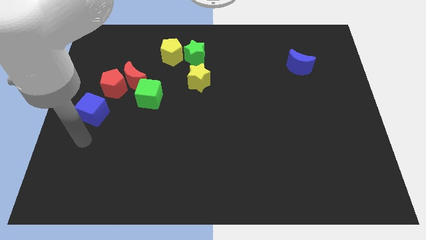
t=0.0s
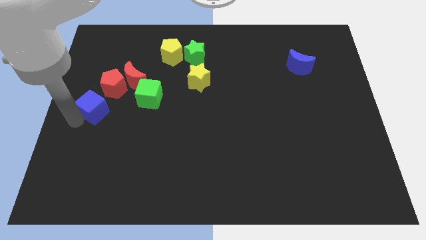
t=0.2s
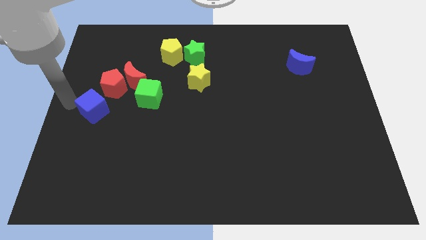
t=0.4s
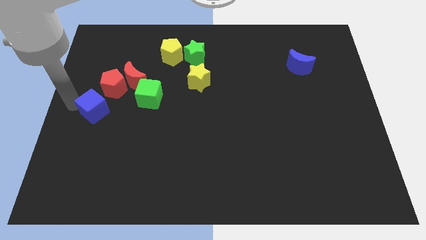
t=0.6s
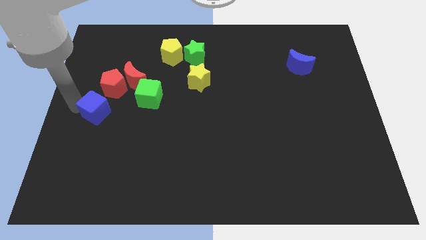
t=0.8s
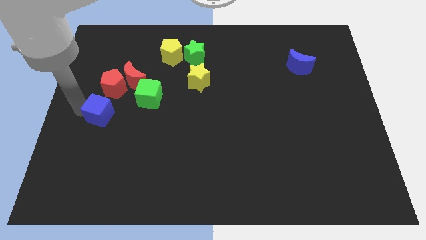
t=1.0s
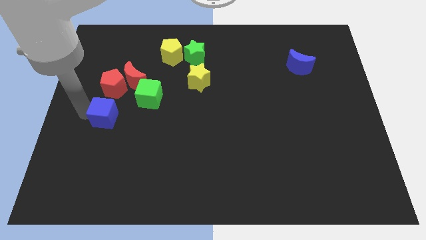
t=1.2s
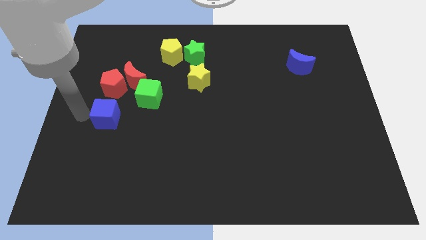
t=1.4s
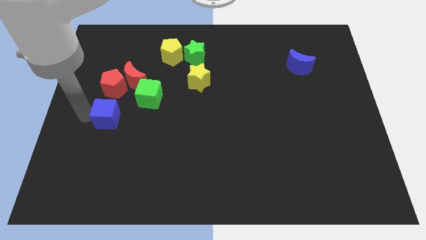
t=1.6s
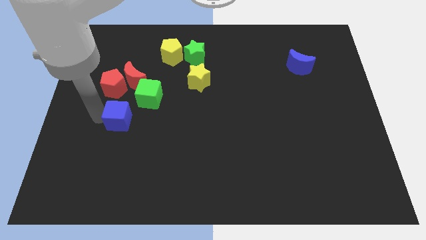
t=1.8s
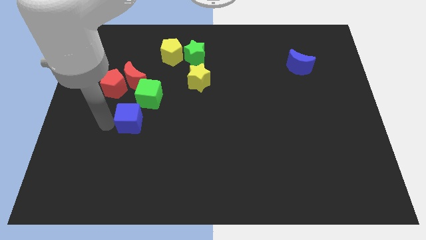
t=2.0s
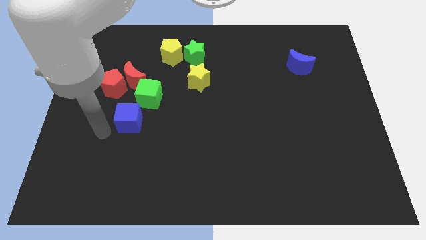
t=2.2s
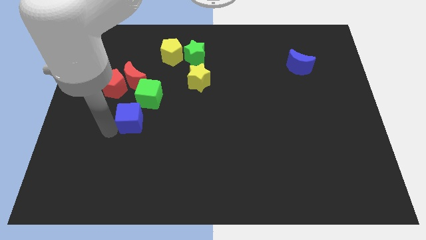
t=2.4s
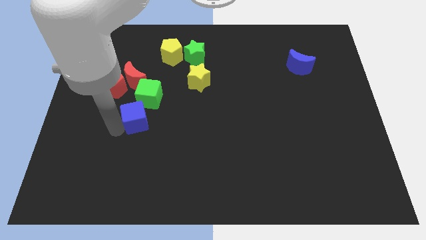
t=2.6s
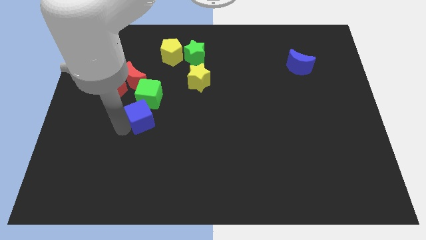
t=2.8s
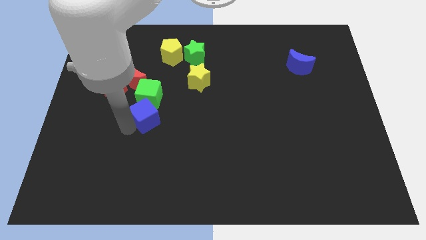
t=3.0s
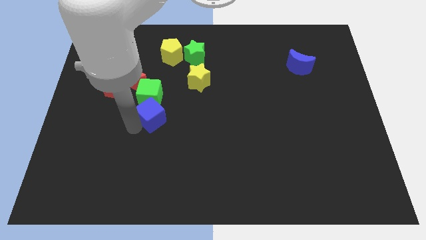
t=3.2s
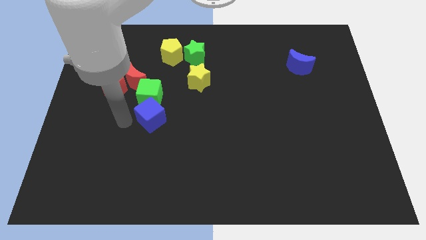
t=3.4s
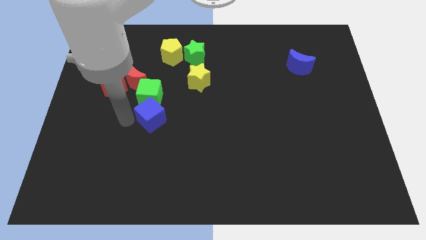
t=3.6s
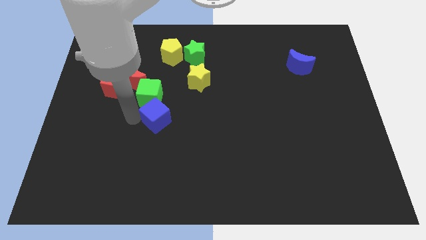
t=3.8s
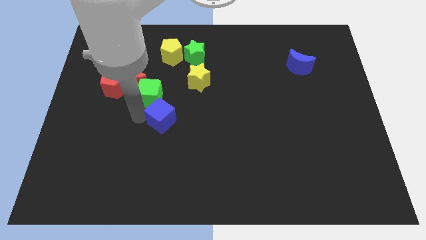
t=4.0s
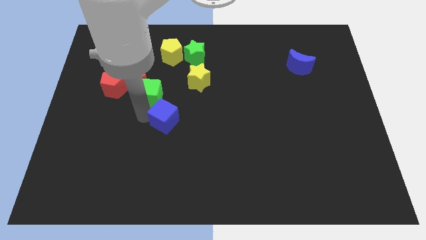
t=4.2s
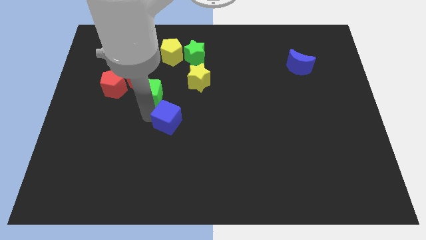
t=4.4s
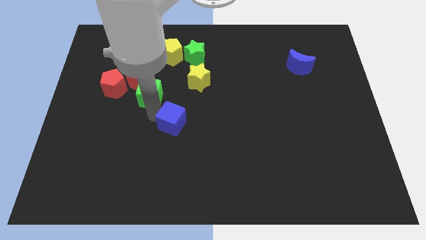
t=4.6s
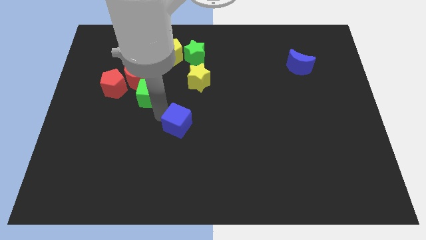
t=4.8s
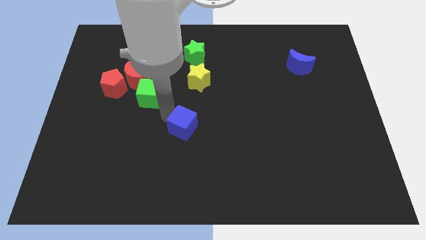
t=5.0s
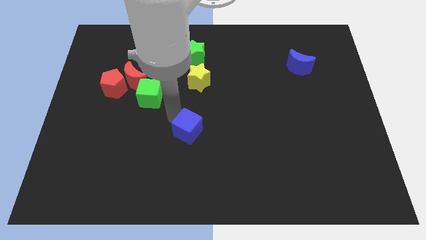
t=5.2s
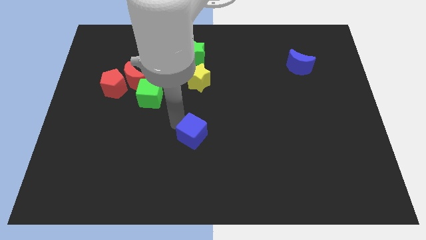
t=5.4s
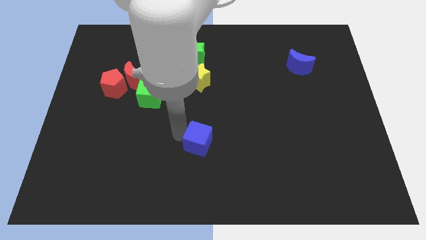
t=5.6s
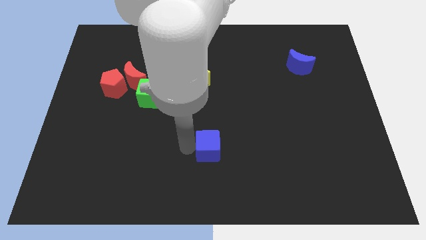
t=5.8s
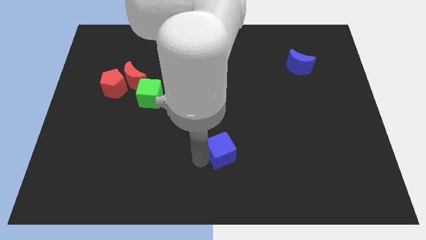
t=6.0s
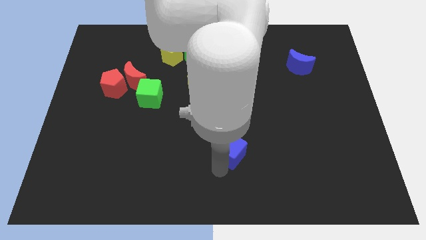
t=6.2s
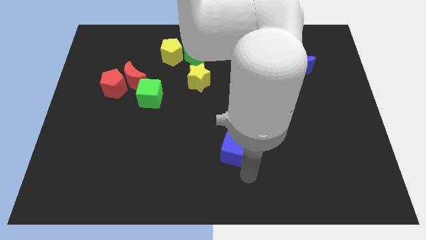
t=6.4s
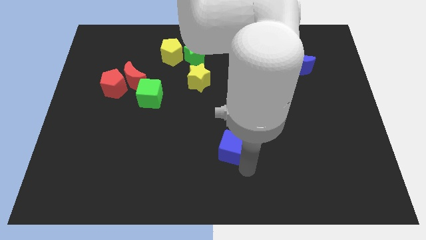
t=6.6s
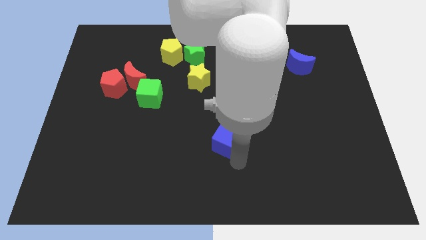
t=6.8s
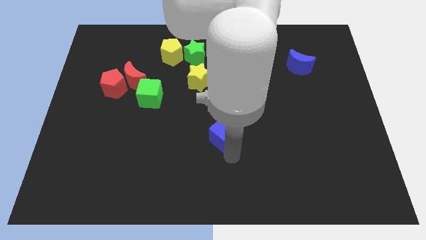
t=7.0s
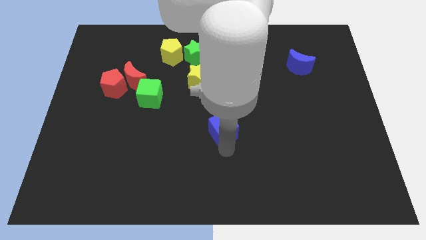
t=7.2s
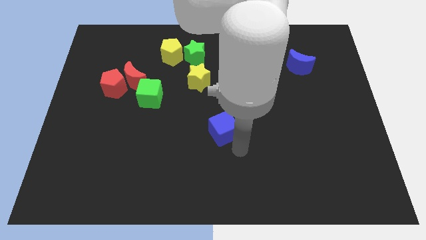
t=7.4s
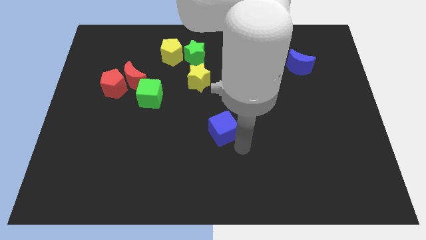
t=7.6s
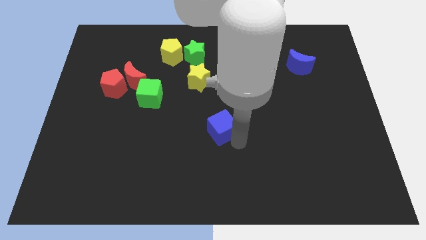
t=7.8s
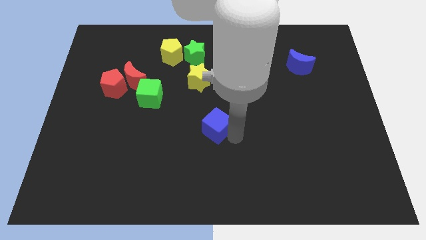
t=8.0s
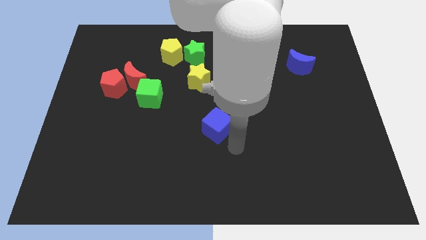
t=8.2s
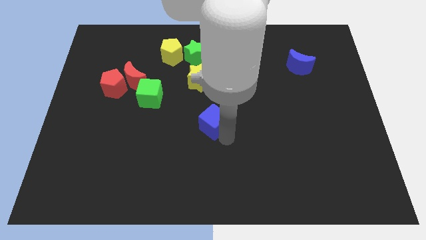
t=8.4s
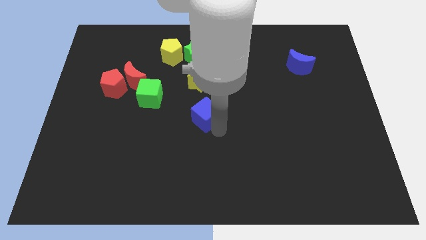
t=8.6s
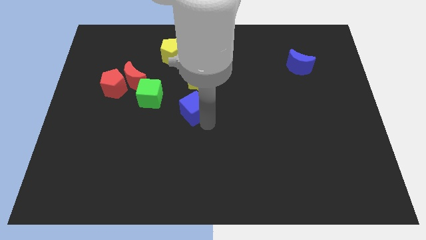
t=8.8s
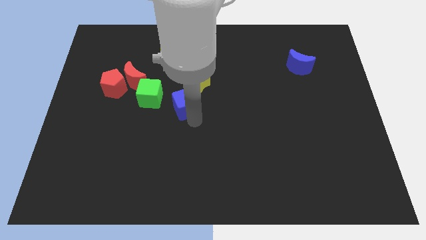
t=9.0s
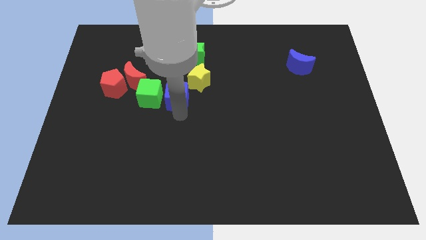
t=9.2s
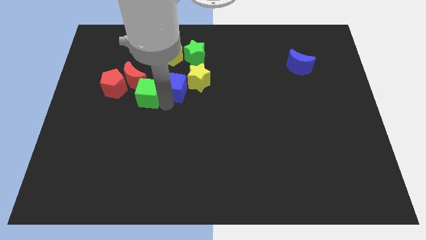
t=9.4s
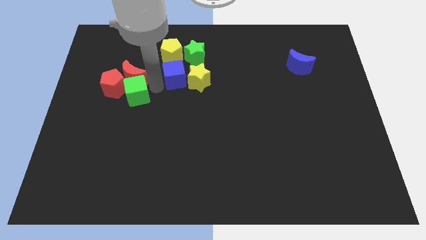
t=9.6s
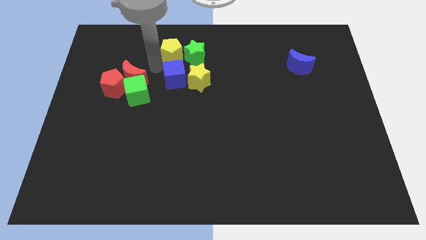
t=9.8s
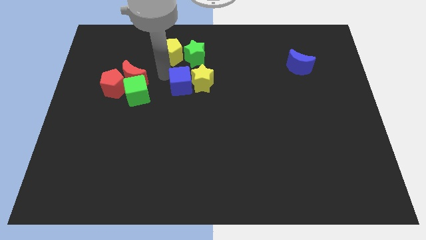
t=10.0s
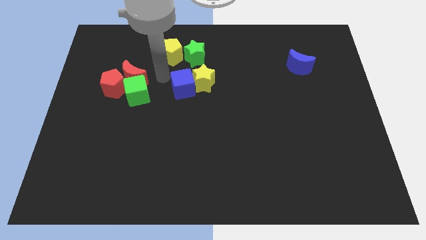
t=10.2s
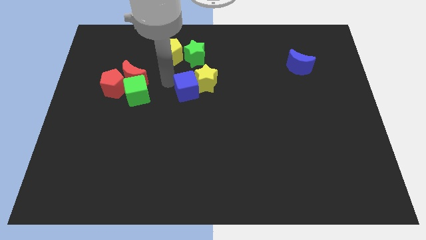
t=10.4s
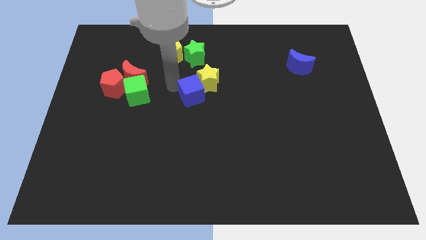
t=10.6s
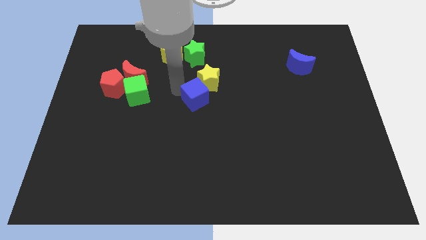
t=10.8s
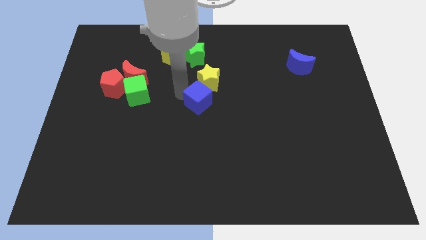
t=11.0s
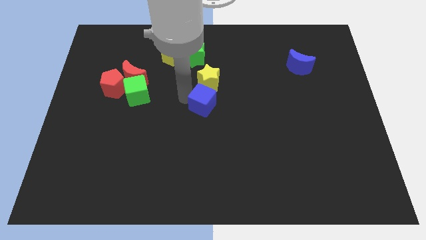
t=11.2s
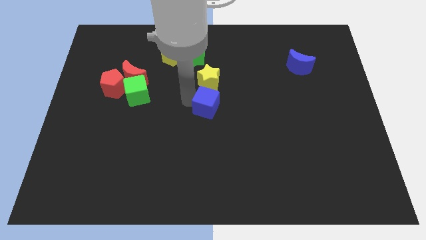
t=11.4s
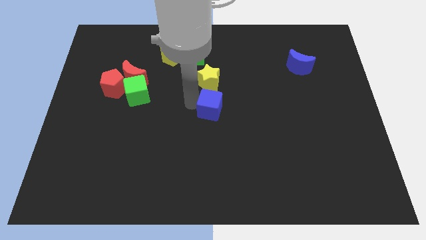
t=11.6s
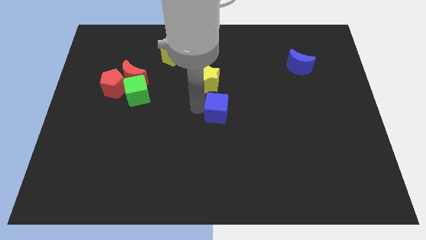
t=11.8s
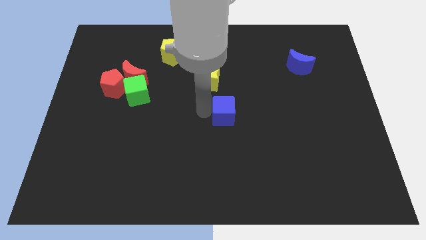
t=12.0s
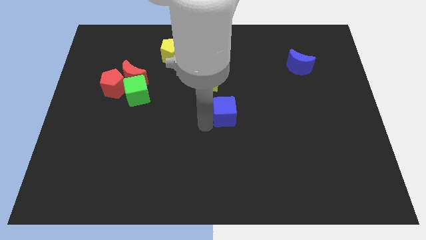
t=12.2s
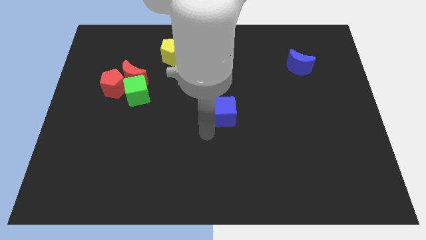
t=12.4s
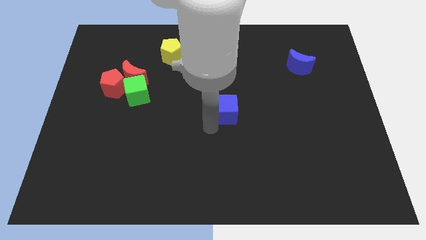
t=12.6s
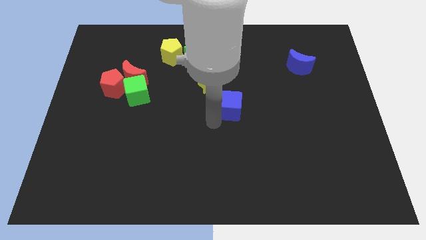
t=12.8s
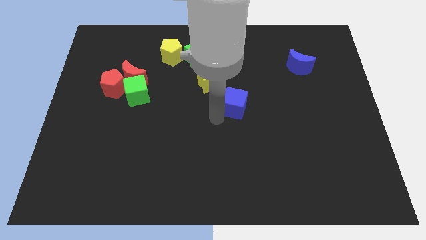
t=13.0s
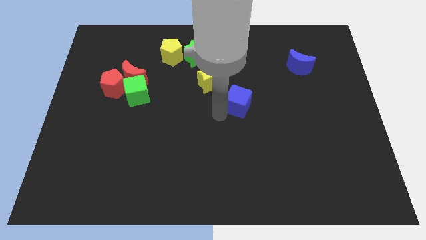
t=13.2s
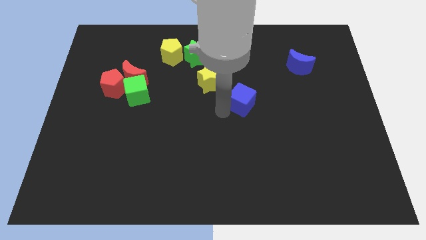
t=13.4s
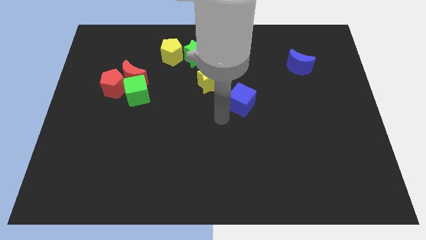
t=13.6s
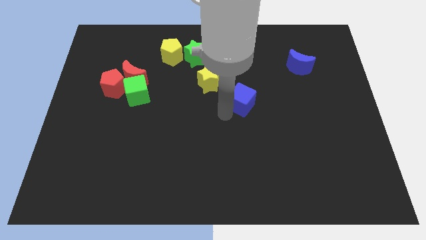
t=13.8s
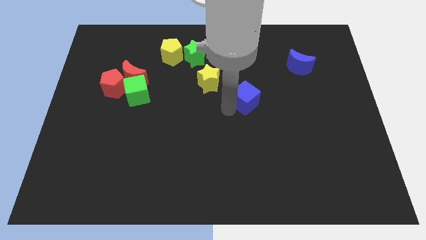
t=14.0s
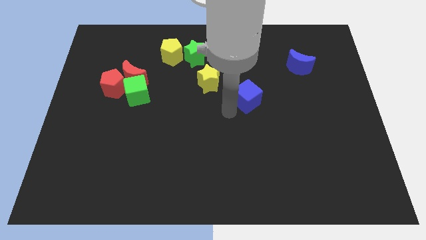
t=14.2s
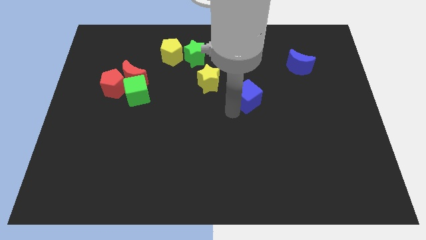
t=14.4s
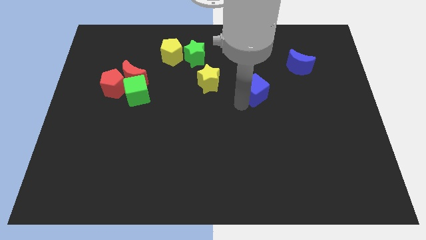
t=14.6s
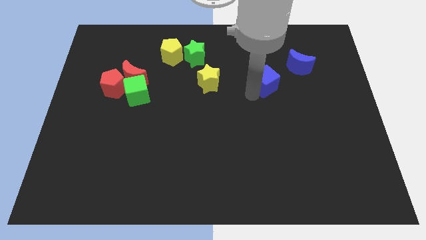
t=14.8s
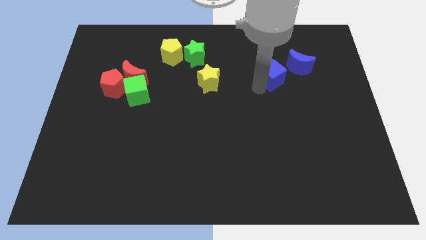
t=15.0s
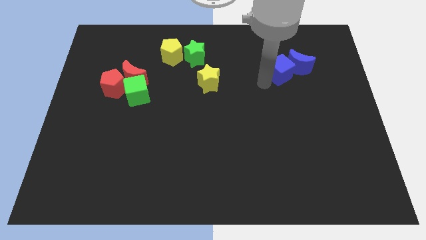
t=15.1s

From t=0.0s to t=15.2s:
slide the blue cube close to the blue moon
